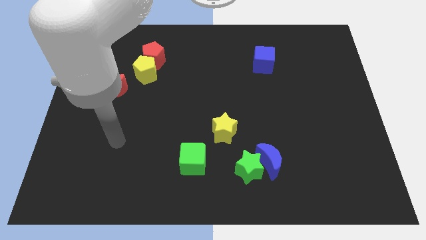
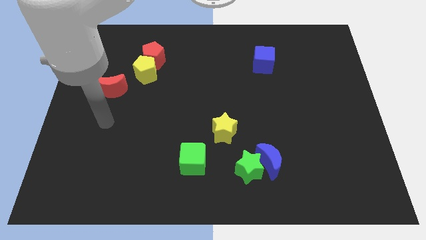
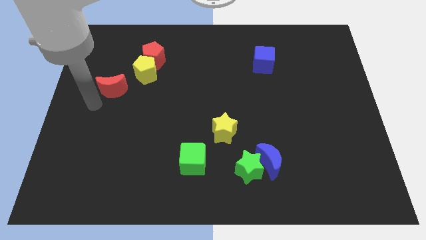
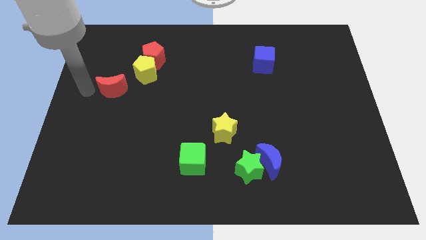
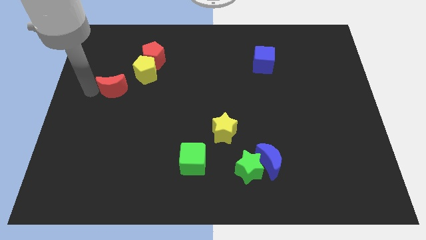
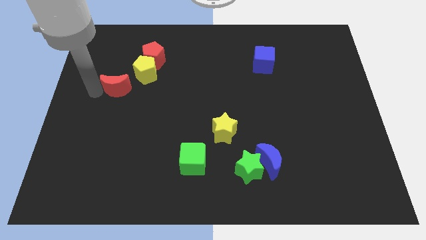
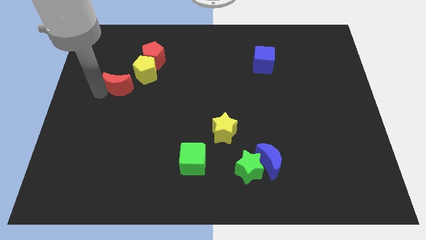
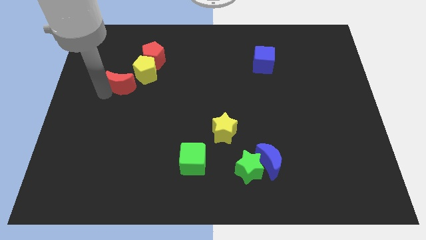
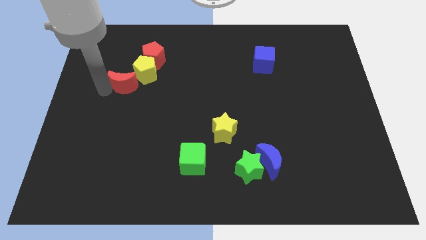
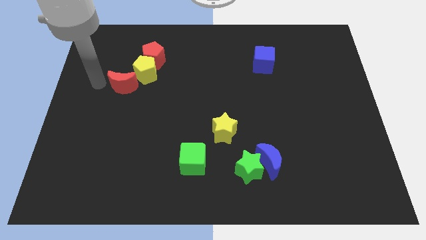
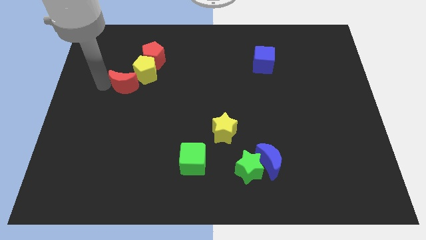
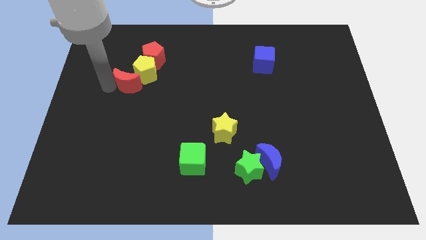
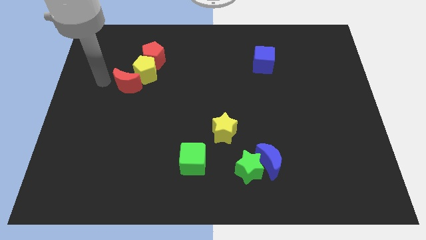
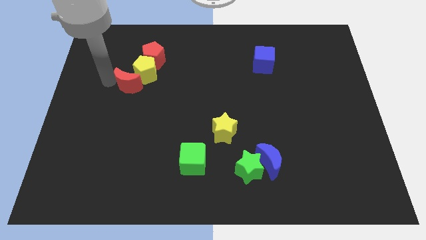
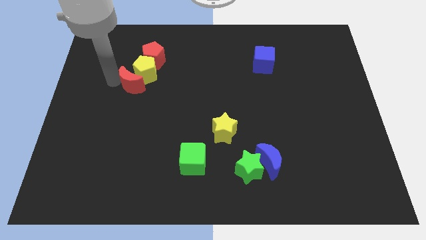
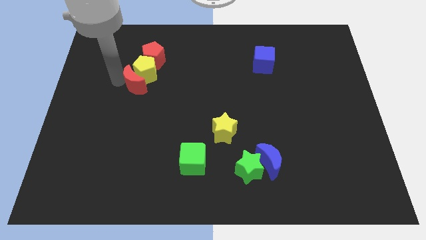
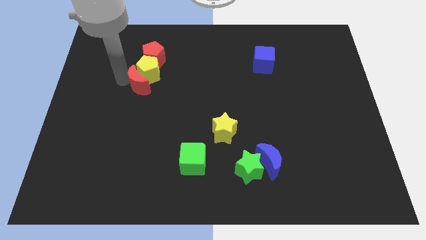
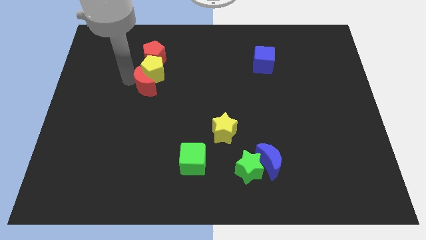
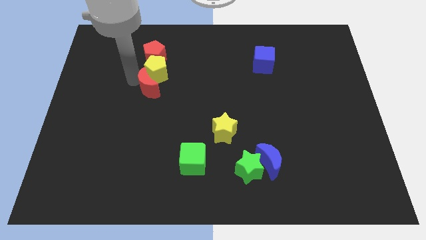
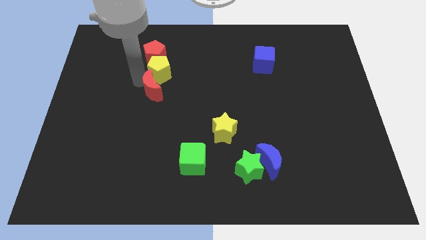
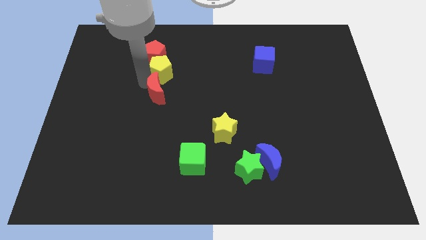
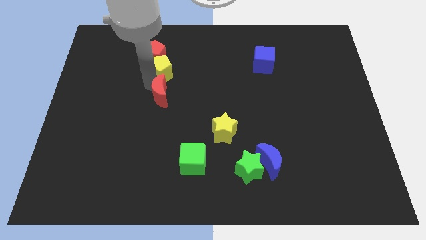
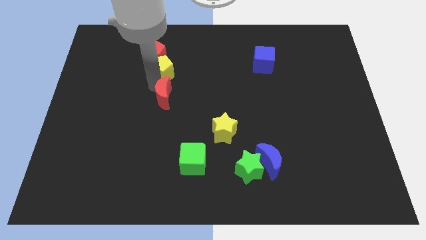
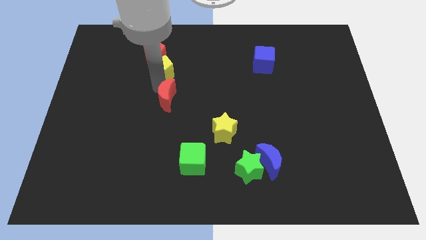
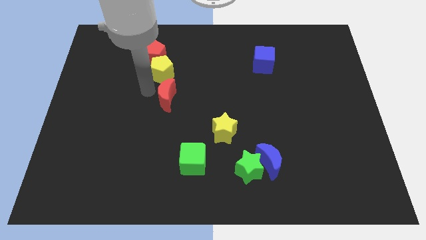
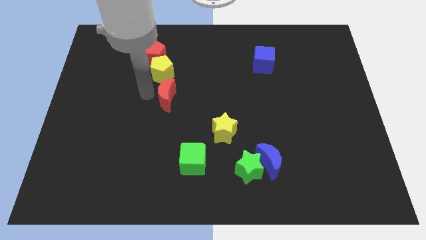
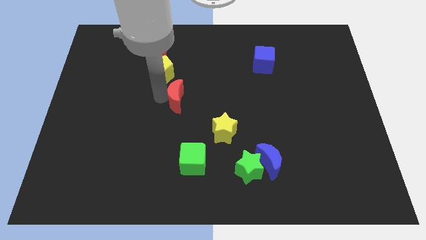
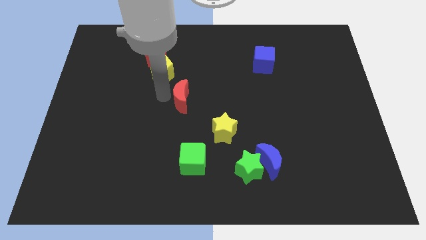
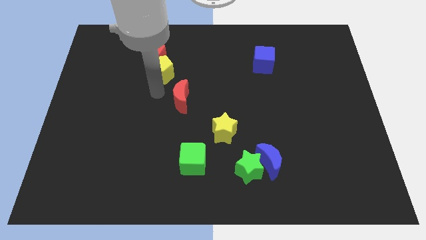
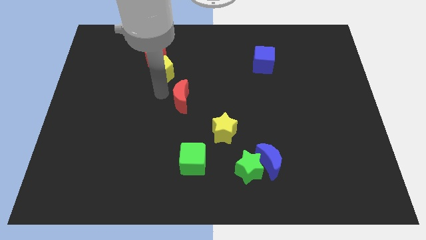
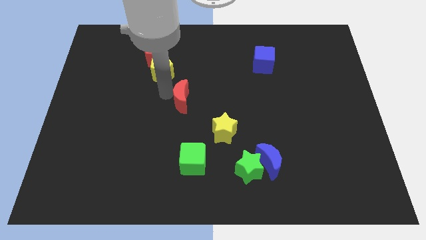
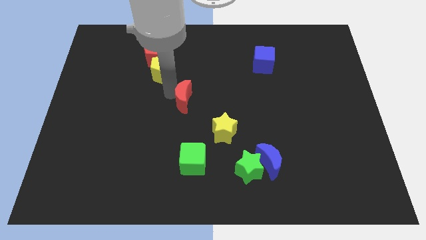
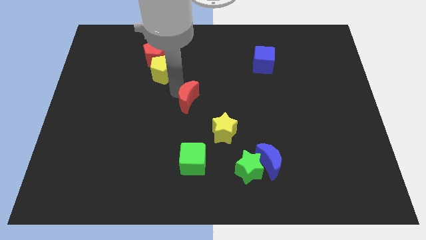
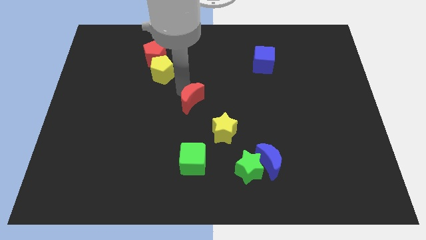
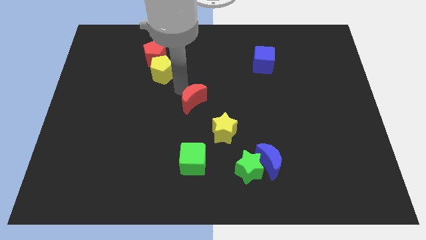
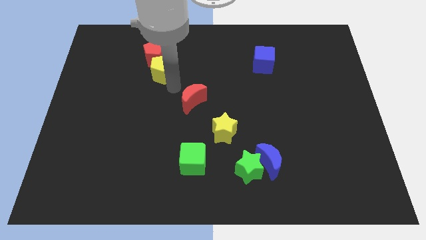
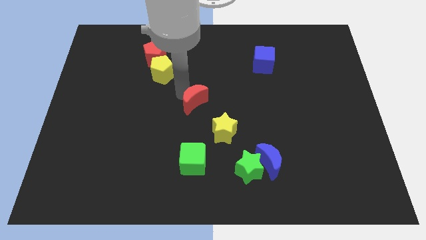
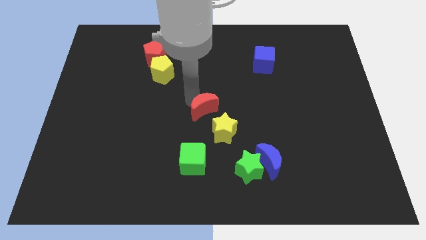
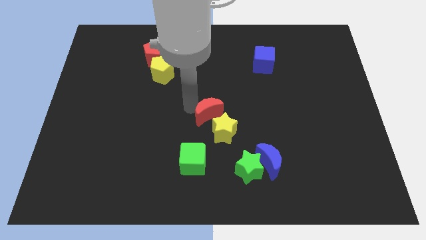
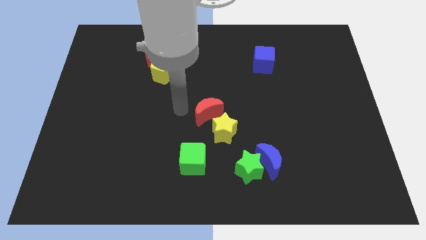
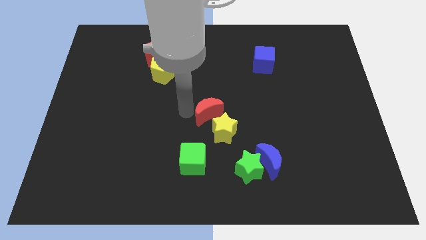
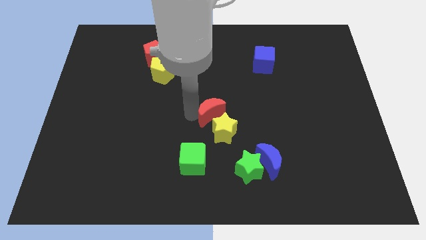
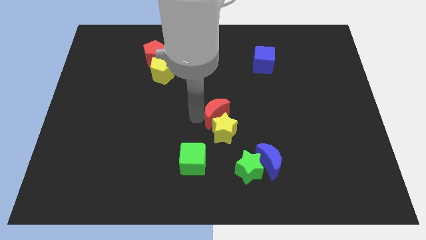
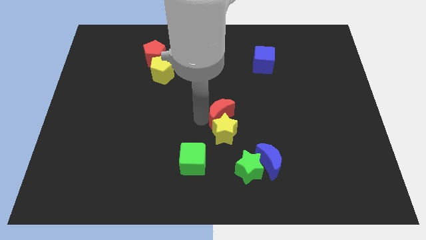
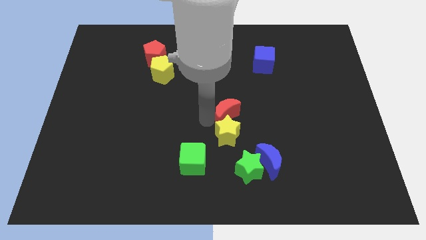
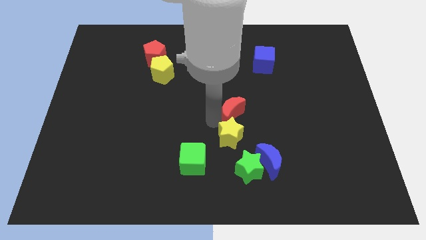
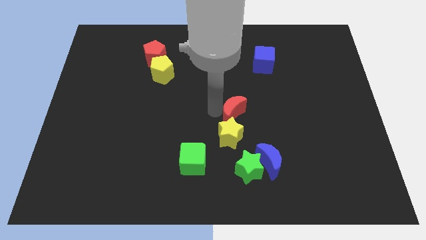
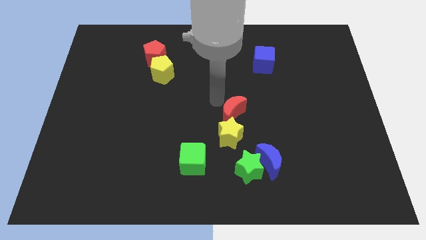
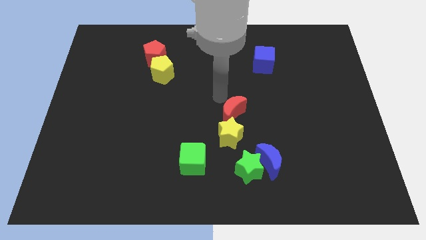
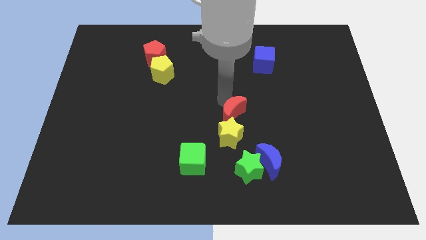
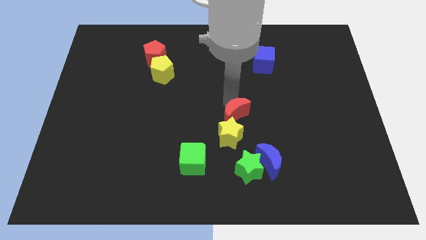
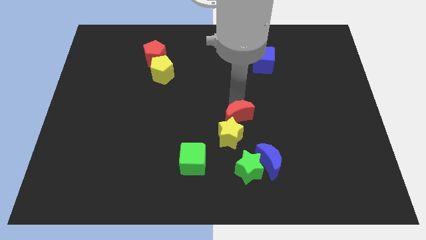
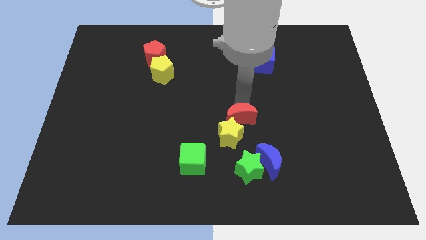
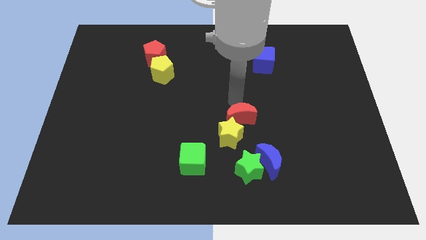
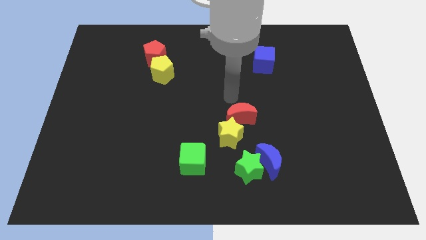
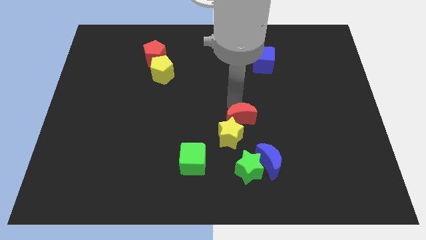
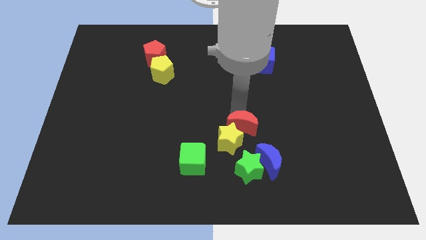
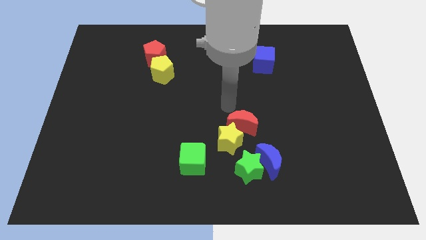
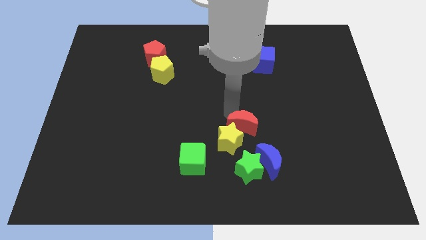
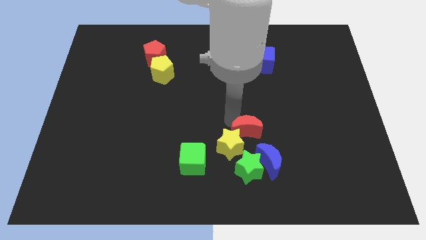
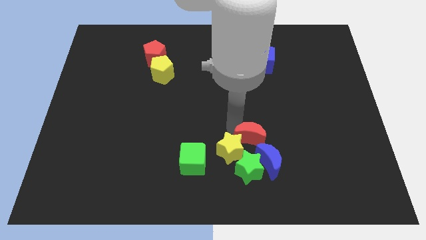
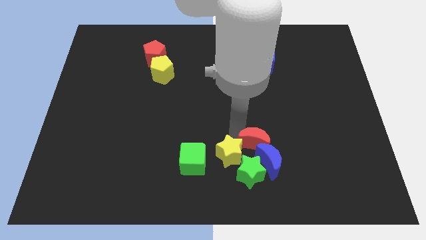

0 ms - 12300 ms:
move the red moon close to the blue moon
